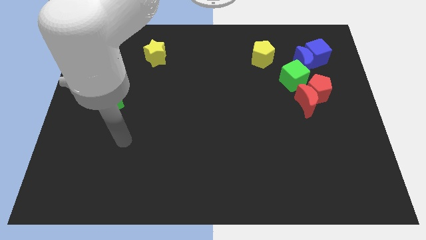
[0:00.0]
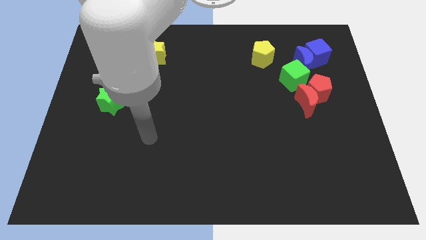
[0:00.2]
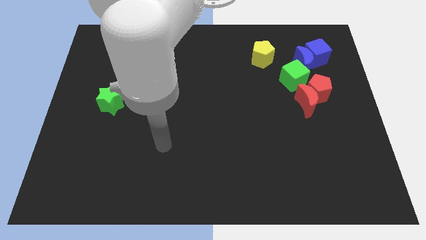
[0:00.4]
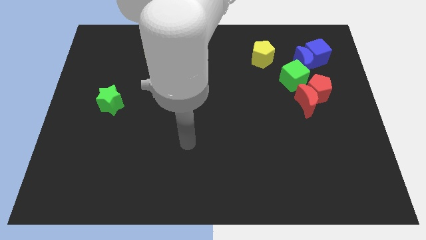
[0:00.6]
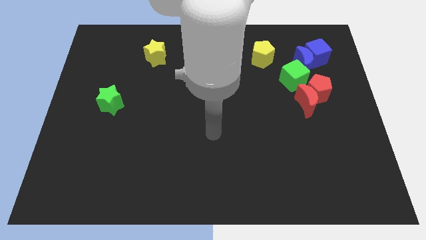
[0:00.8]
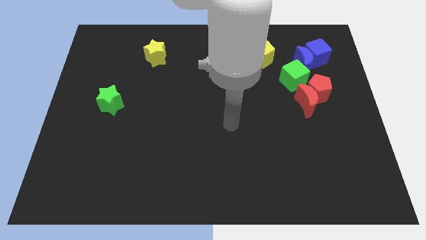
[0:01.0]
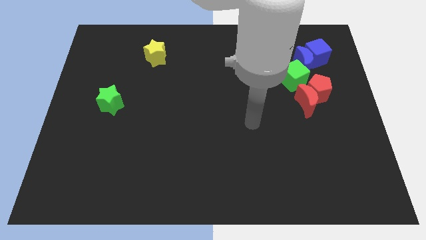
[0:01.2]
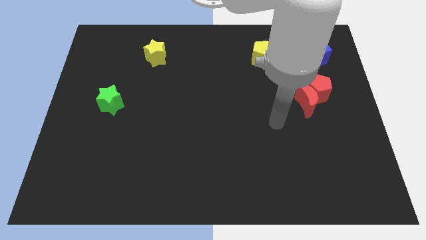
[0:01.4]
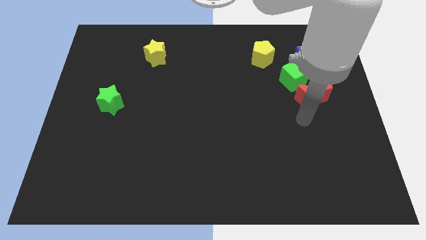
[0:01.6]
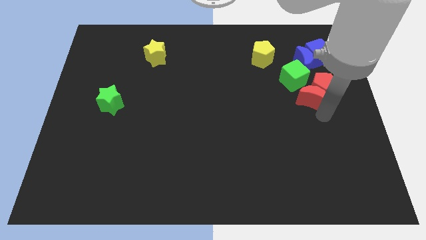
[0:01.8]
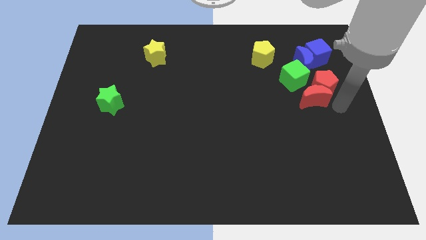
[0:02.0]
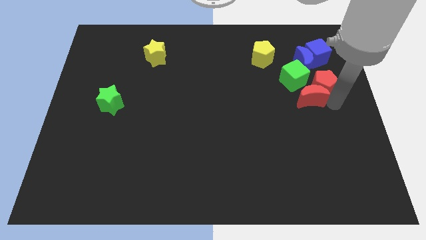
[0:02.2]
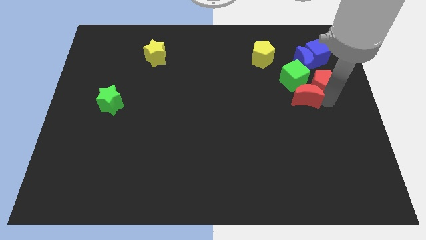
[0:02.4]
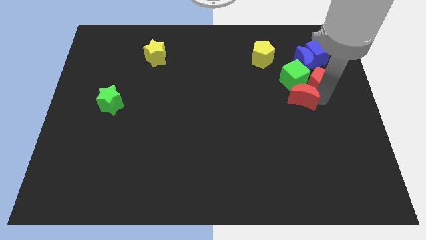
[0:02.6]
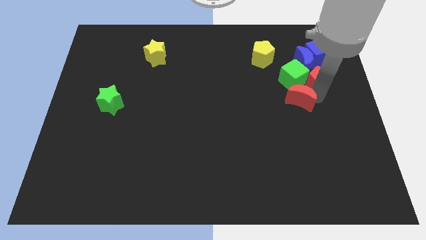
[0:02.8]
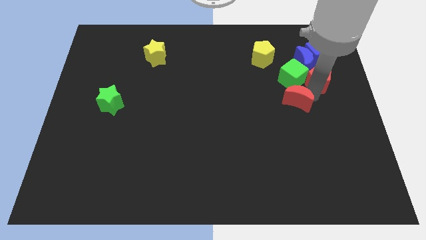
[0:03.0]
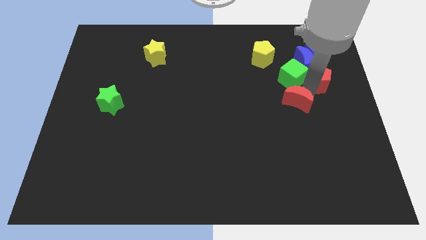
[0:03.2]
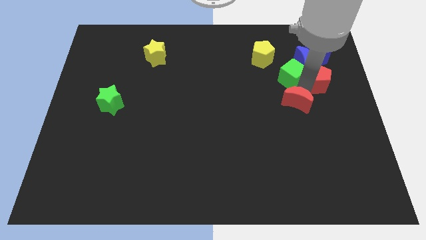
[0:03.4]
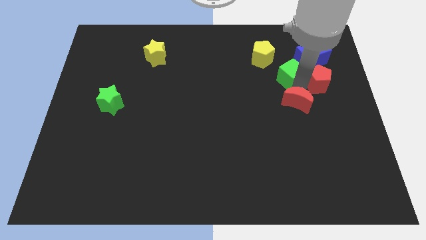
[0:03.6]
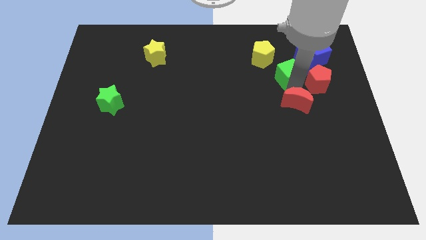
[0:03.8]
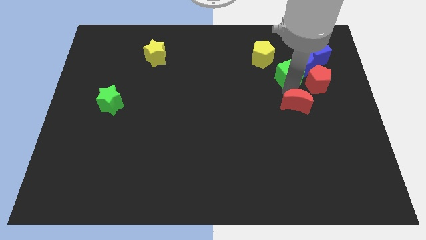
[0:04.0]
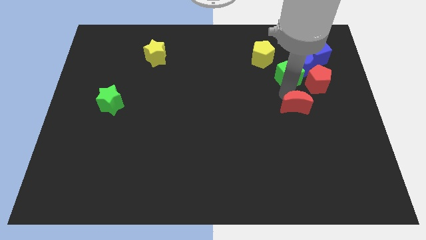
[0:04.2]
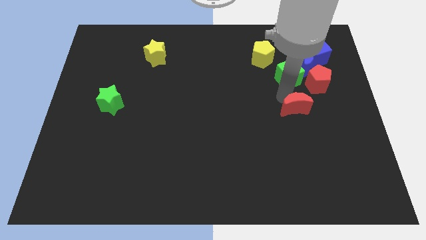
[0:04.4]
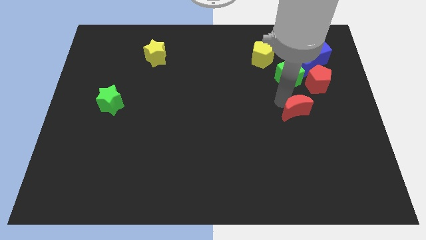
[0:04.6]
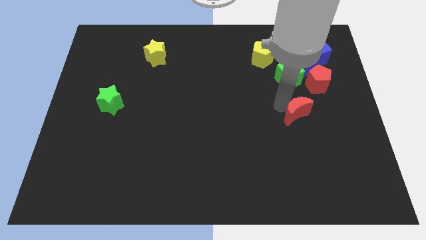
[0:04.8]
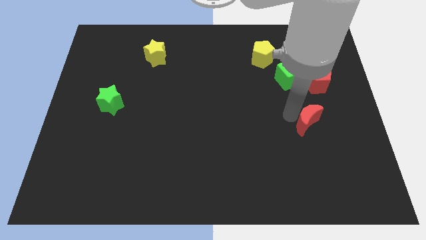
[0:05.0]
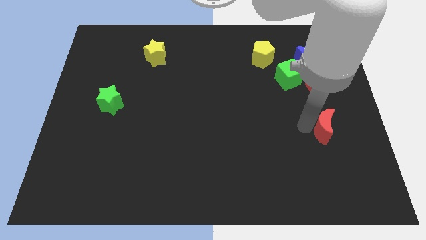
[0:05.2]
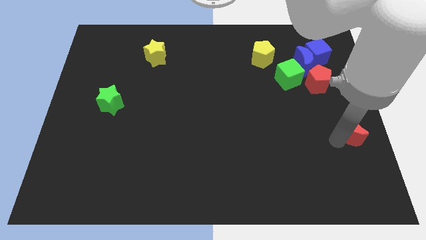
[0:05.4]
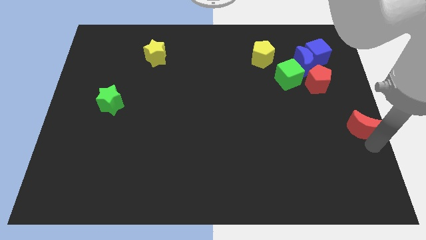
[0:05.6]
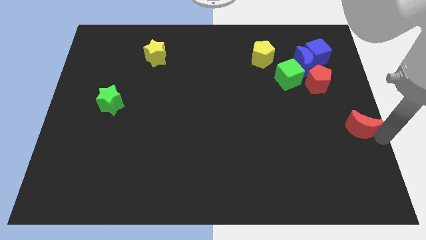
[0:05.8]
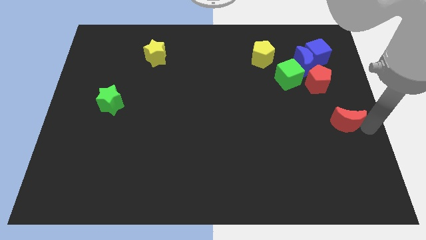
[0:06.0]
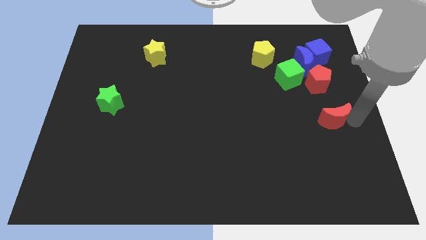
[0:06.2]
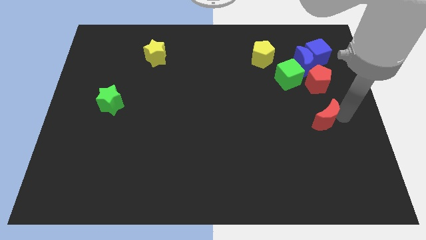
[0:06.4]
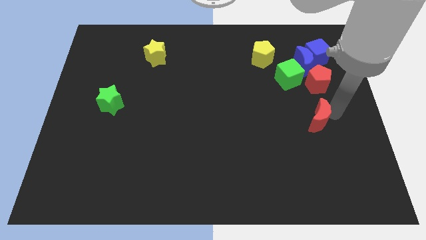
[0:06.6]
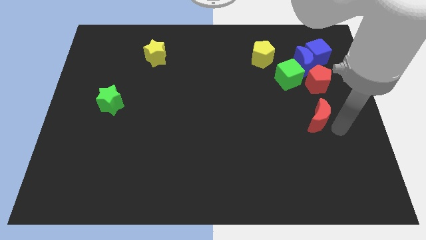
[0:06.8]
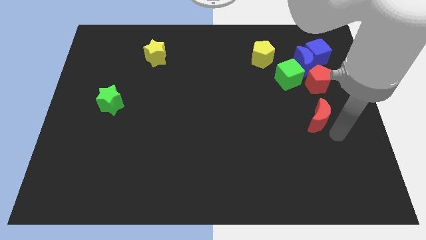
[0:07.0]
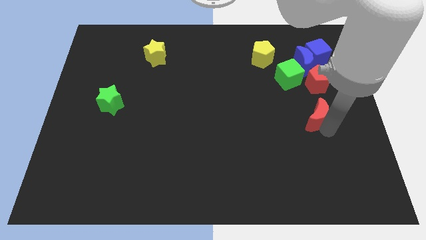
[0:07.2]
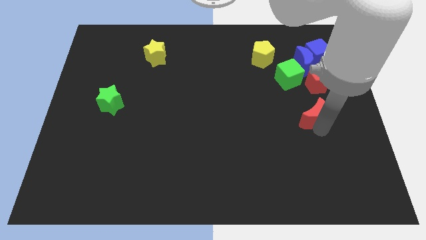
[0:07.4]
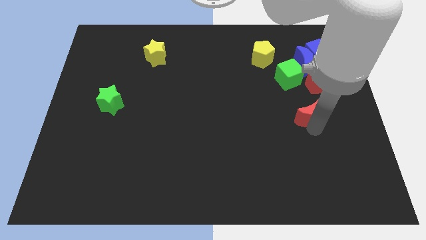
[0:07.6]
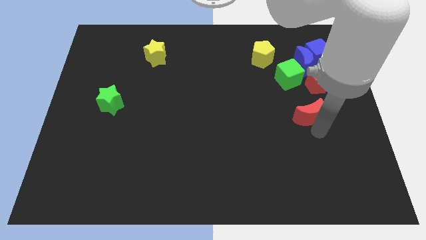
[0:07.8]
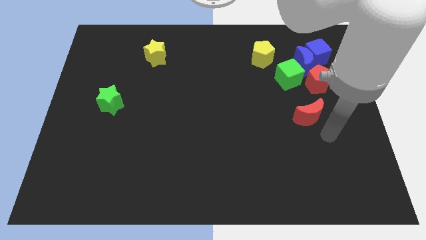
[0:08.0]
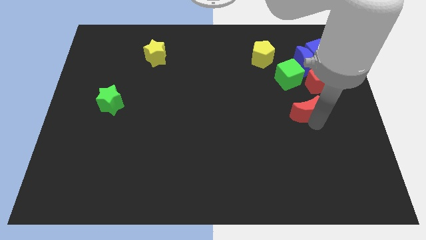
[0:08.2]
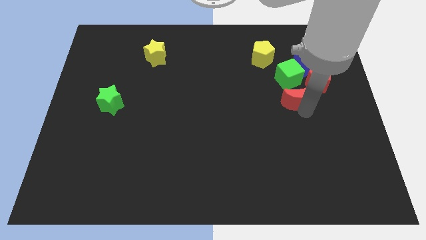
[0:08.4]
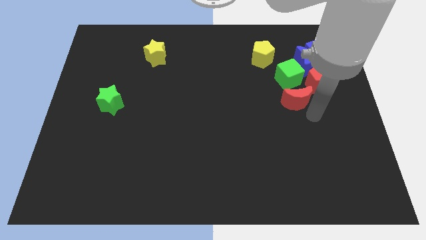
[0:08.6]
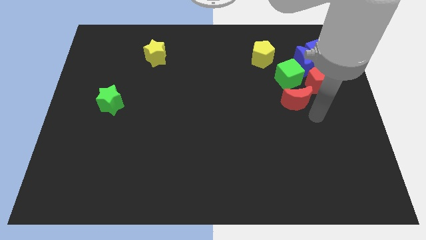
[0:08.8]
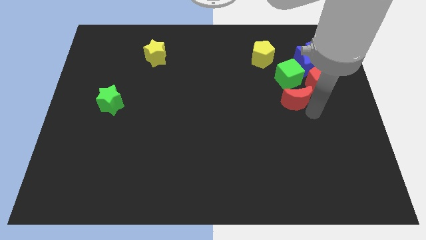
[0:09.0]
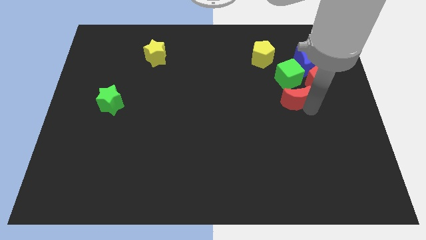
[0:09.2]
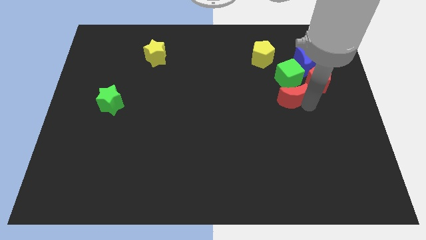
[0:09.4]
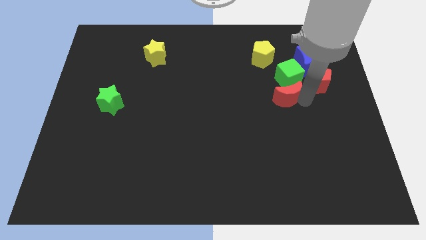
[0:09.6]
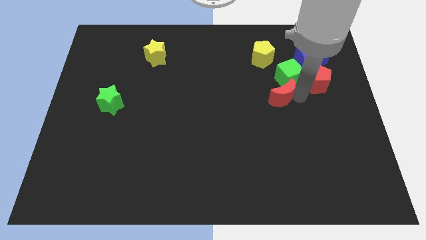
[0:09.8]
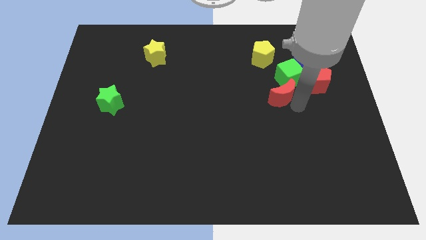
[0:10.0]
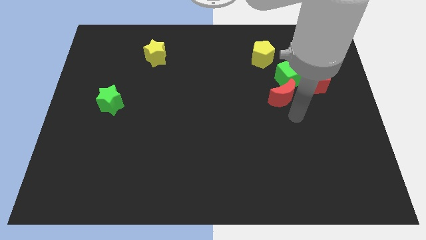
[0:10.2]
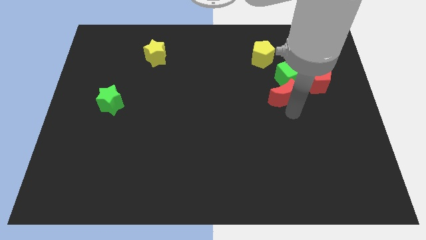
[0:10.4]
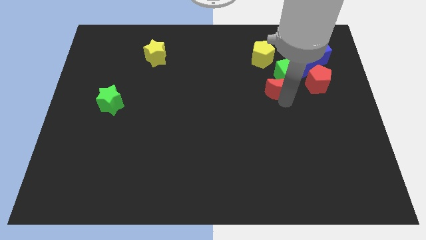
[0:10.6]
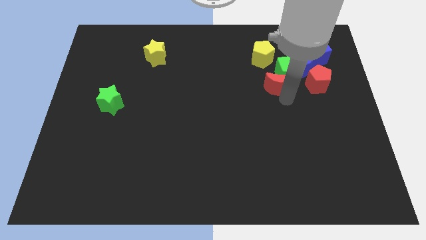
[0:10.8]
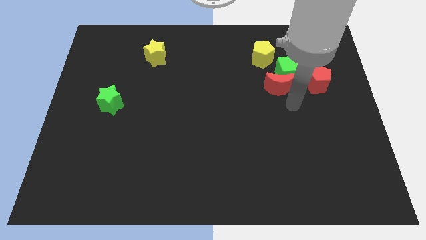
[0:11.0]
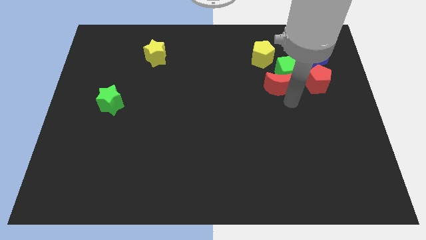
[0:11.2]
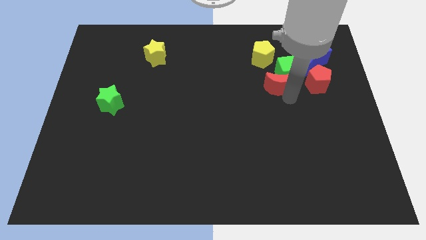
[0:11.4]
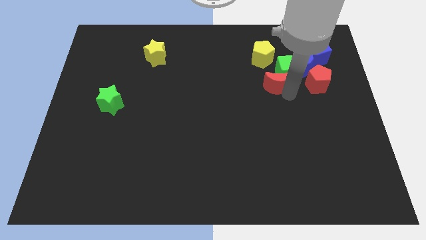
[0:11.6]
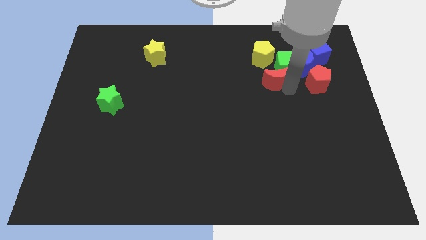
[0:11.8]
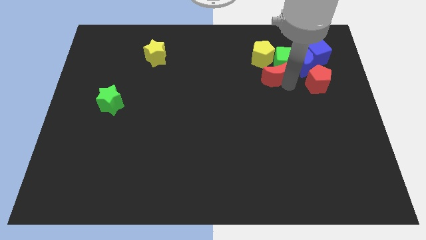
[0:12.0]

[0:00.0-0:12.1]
move the red moon left of the blue moon

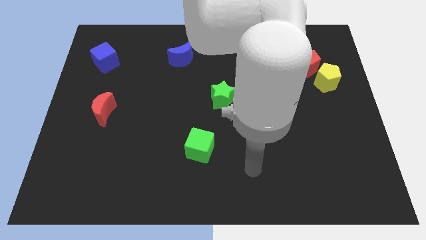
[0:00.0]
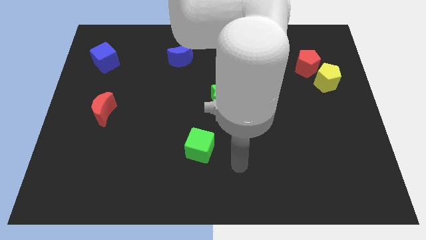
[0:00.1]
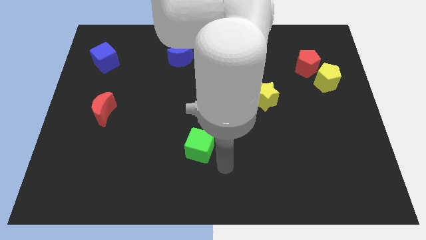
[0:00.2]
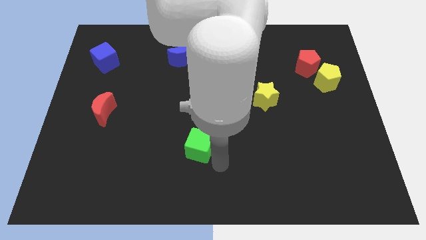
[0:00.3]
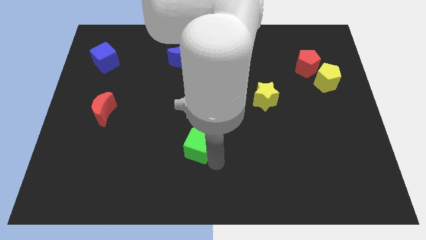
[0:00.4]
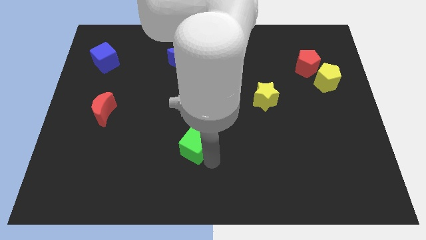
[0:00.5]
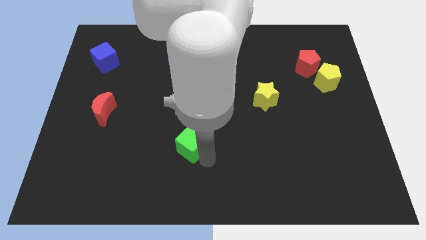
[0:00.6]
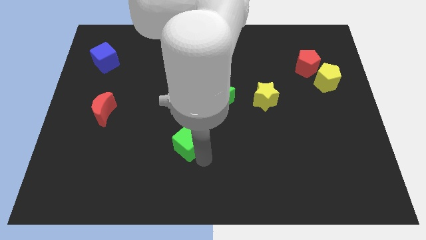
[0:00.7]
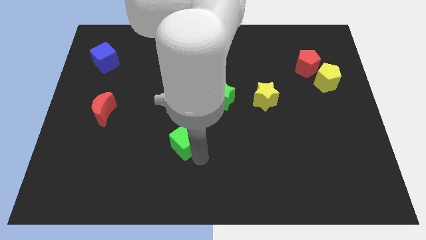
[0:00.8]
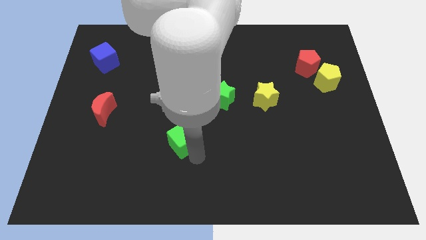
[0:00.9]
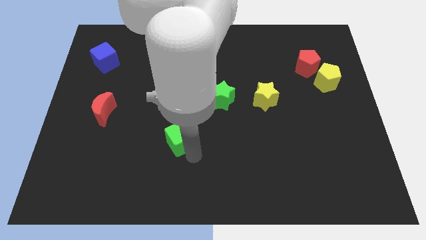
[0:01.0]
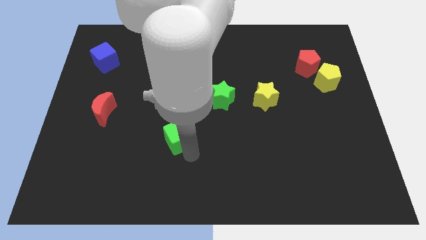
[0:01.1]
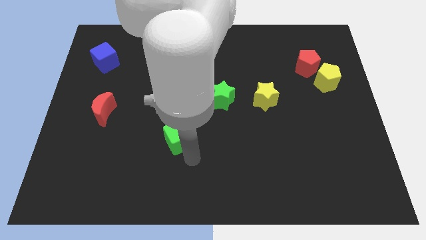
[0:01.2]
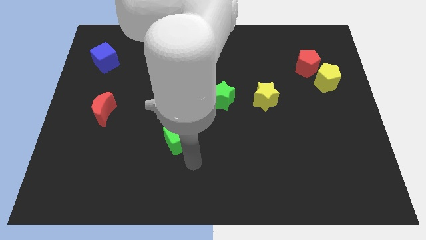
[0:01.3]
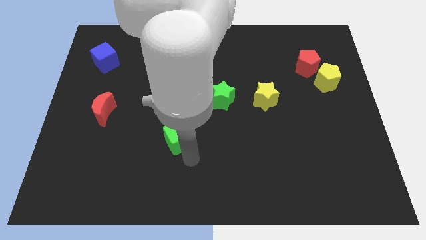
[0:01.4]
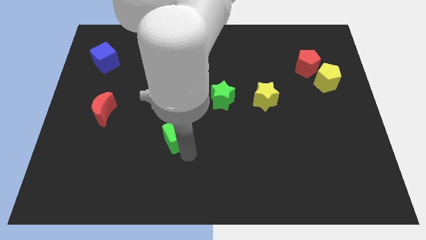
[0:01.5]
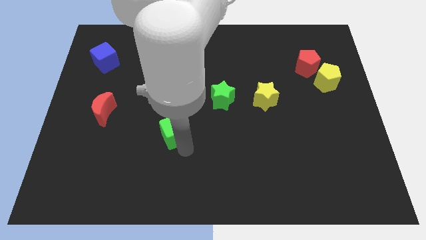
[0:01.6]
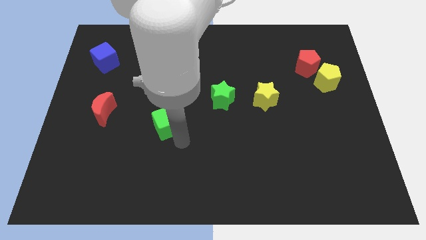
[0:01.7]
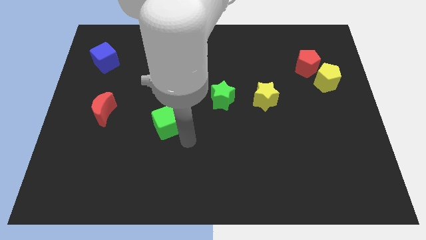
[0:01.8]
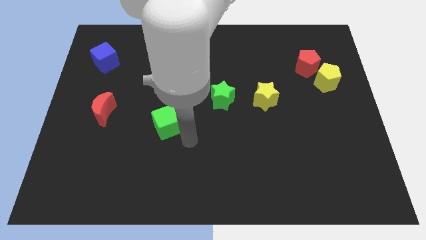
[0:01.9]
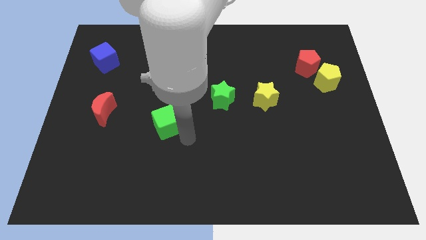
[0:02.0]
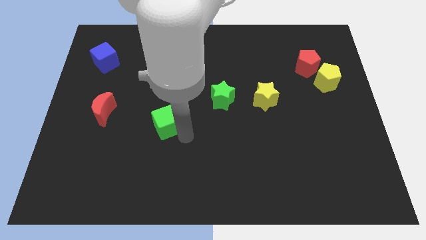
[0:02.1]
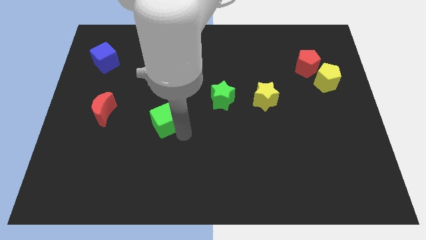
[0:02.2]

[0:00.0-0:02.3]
push the green cube to the right of the red moon
